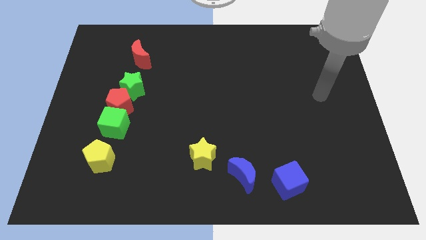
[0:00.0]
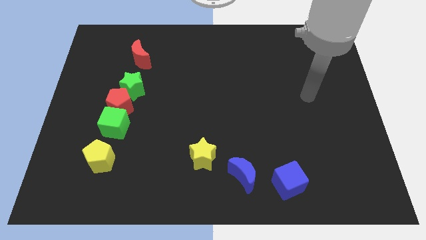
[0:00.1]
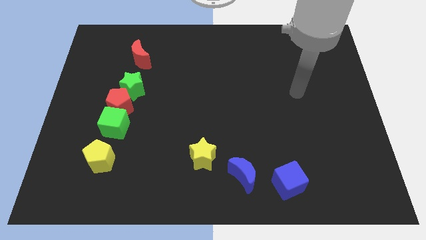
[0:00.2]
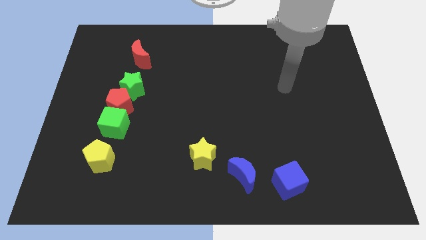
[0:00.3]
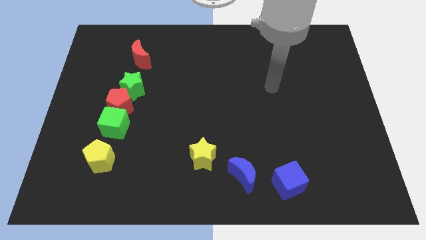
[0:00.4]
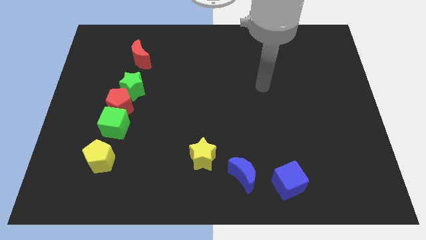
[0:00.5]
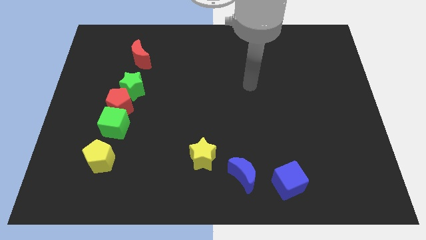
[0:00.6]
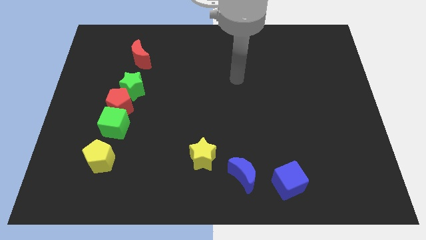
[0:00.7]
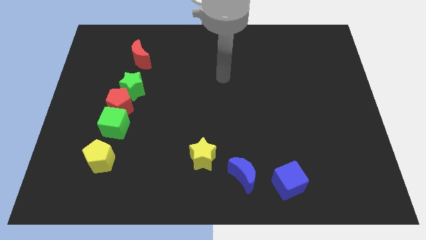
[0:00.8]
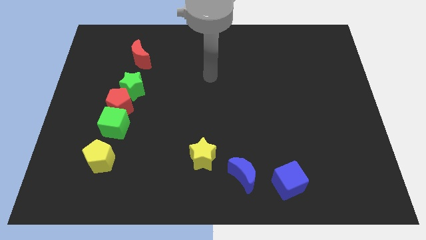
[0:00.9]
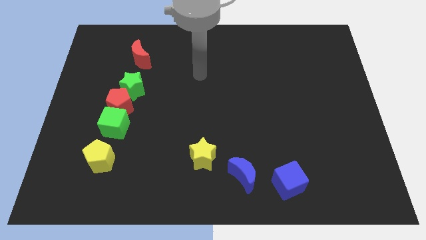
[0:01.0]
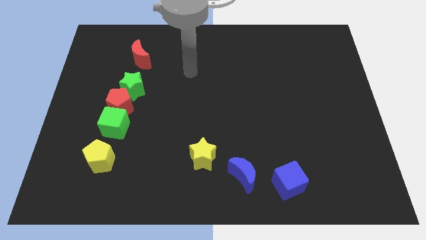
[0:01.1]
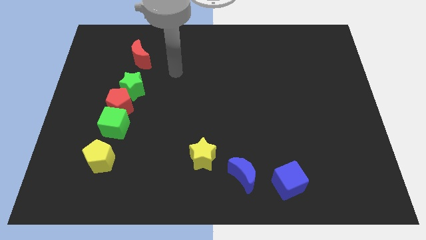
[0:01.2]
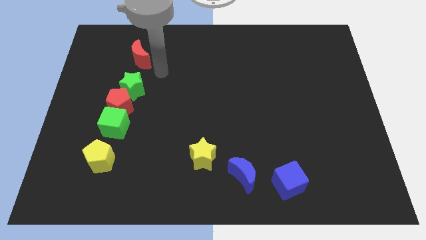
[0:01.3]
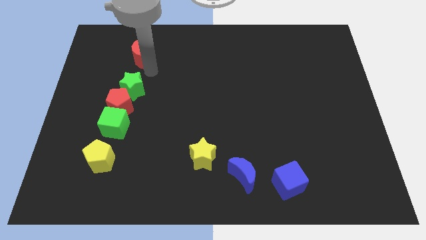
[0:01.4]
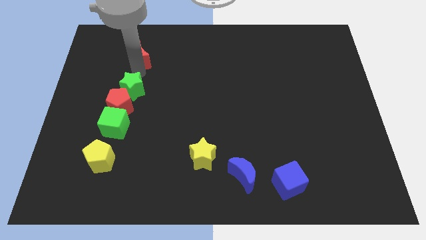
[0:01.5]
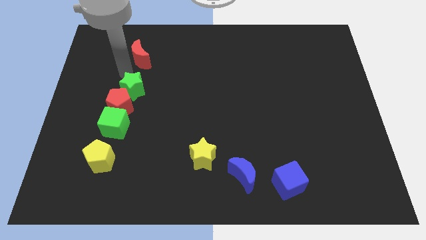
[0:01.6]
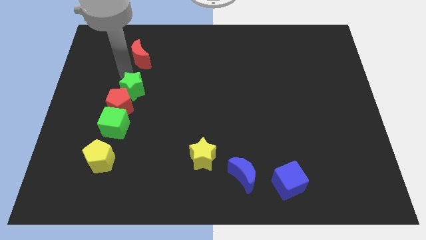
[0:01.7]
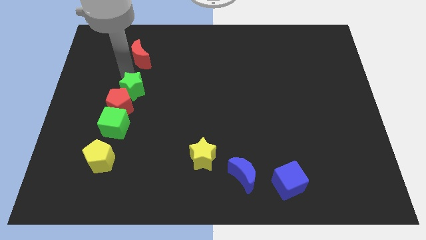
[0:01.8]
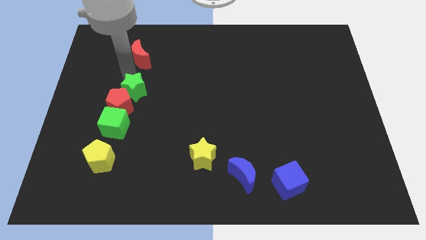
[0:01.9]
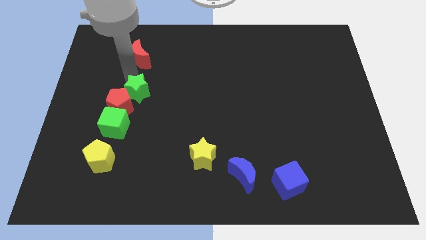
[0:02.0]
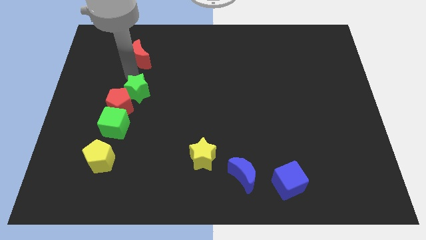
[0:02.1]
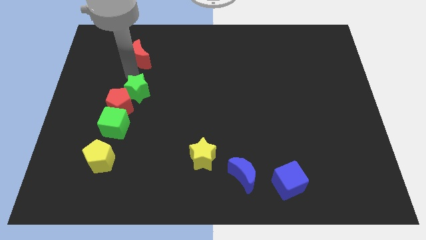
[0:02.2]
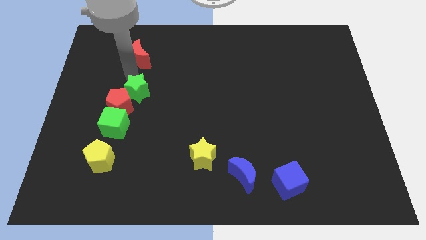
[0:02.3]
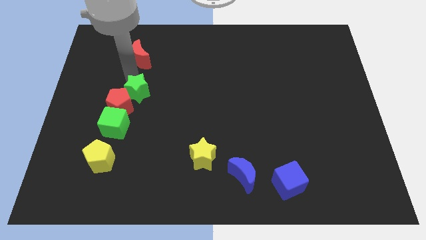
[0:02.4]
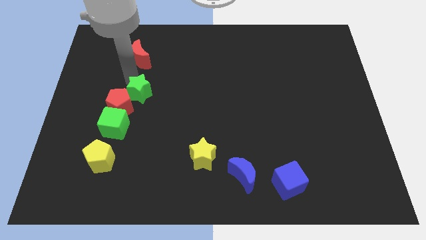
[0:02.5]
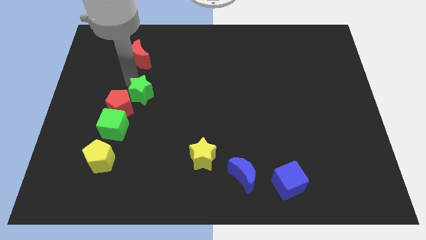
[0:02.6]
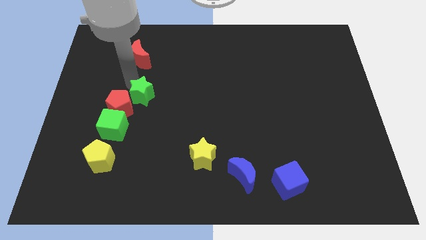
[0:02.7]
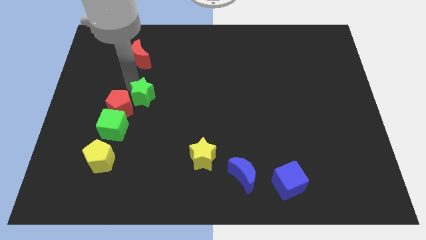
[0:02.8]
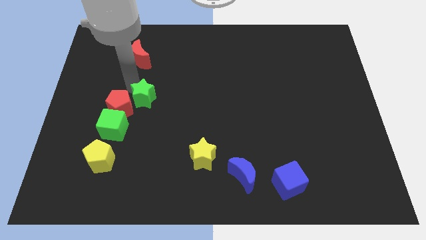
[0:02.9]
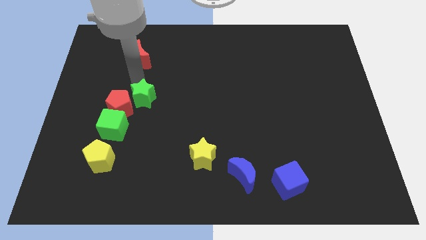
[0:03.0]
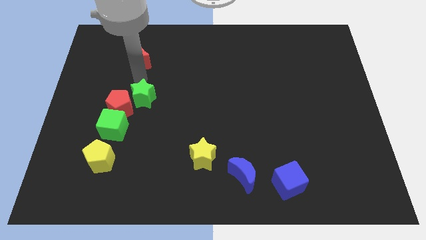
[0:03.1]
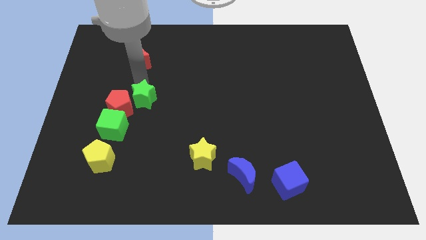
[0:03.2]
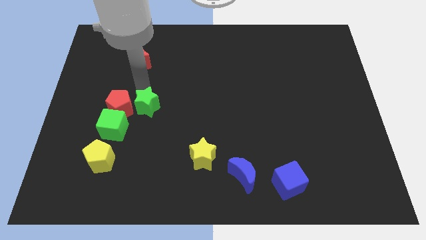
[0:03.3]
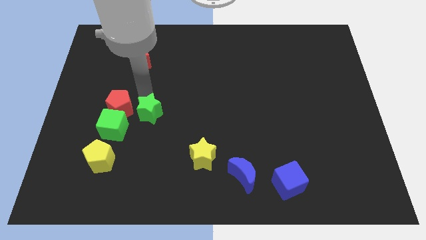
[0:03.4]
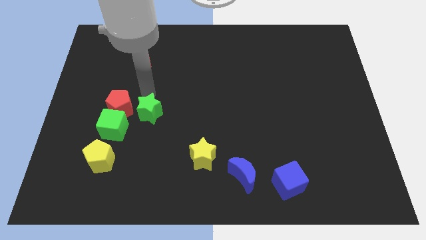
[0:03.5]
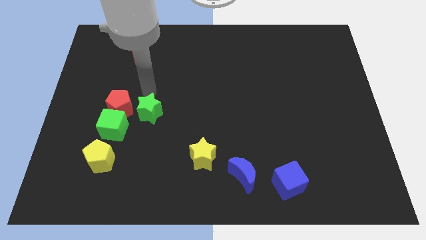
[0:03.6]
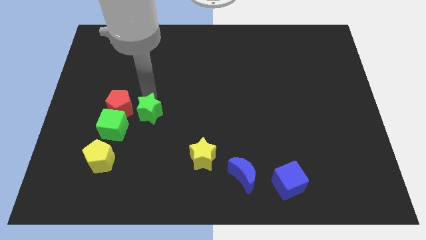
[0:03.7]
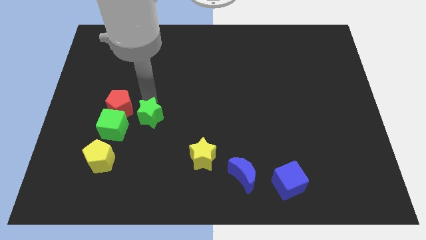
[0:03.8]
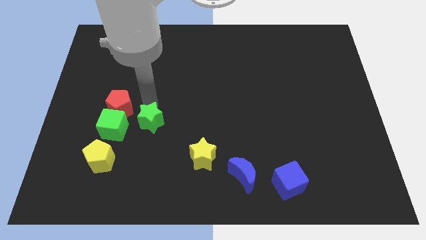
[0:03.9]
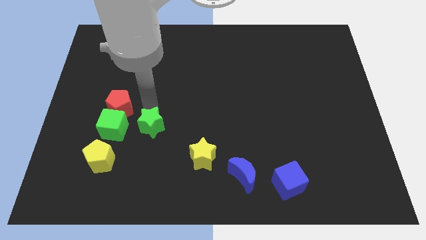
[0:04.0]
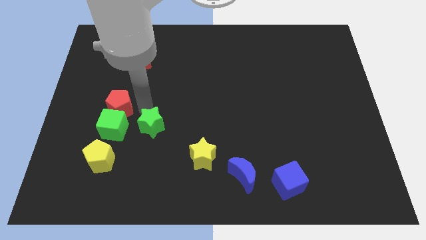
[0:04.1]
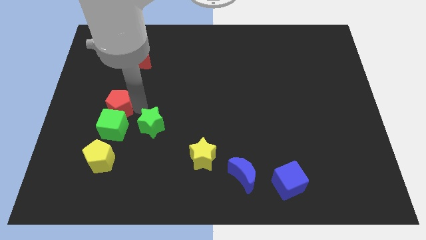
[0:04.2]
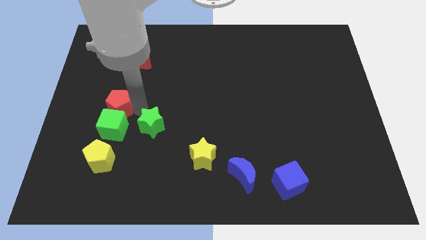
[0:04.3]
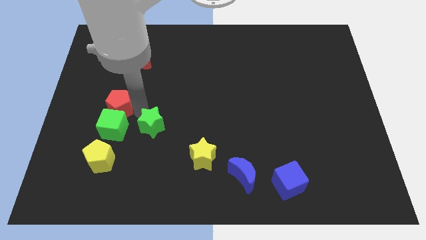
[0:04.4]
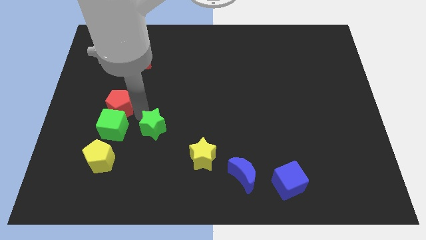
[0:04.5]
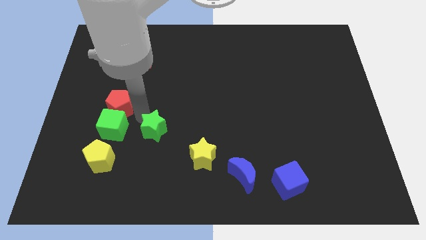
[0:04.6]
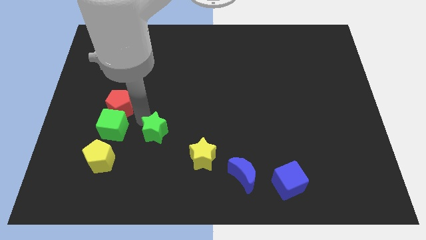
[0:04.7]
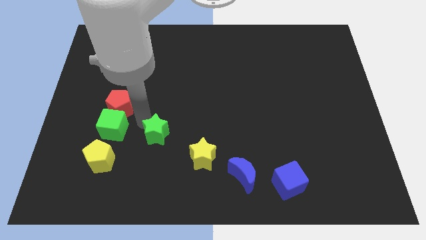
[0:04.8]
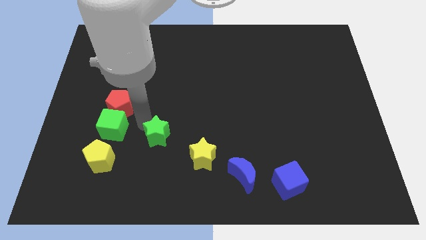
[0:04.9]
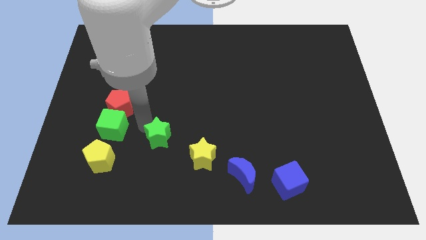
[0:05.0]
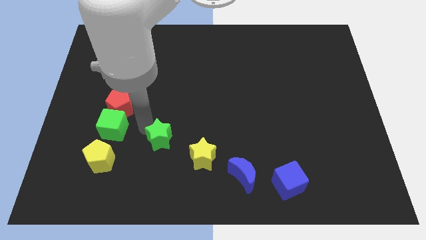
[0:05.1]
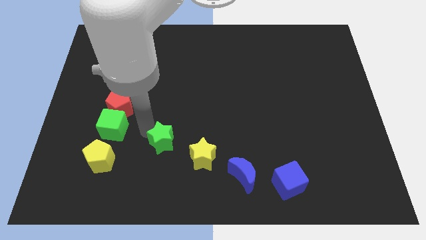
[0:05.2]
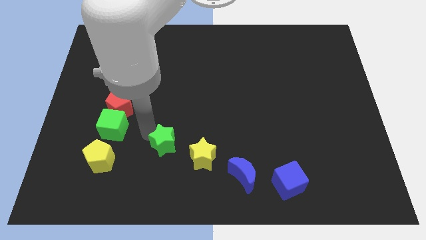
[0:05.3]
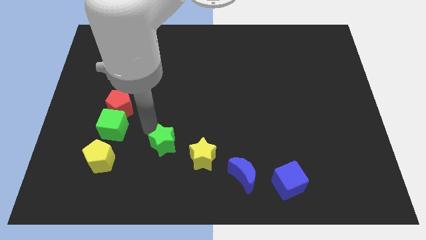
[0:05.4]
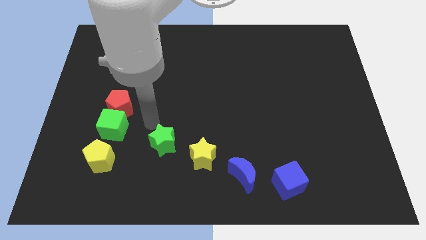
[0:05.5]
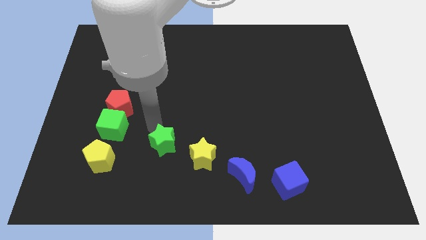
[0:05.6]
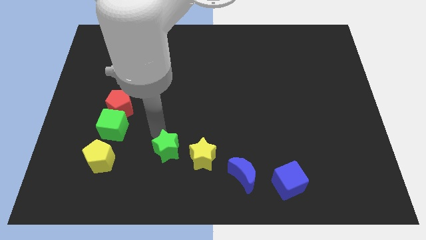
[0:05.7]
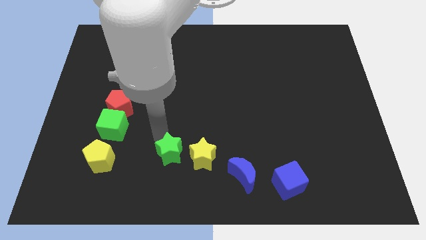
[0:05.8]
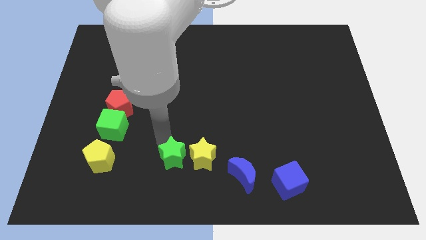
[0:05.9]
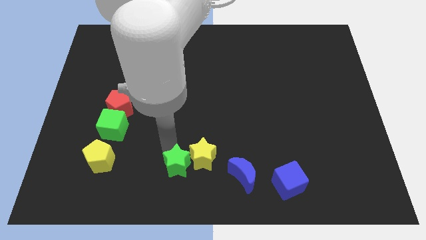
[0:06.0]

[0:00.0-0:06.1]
put the green star to the bottom side
